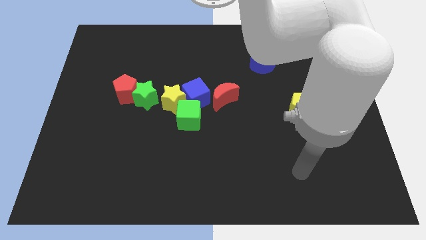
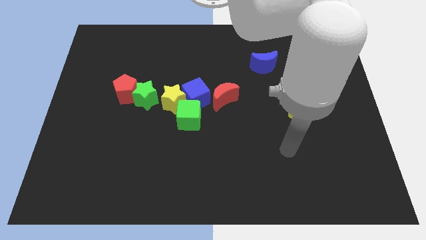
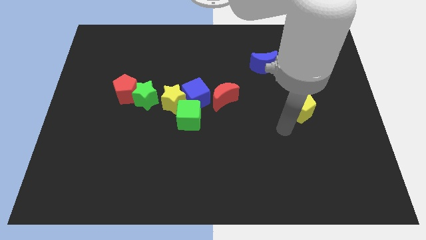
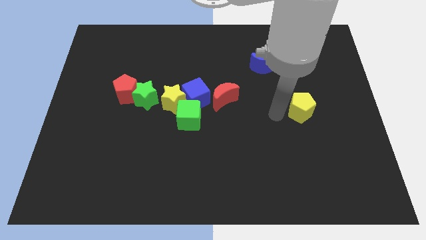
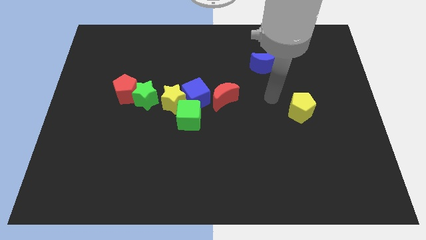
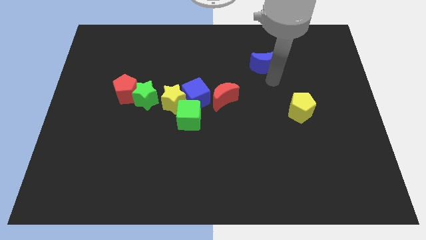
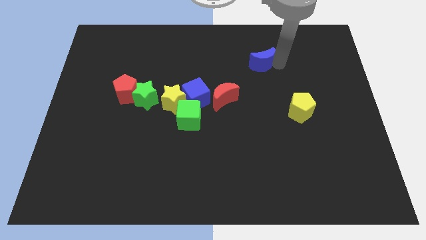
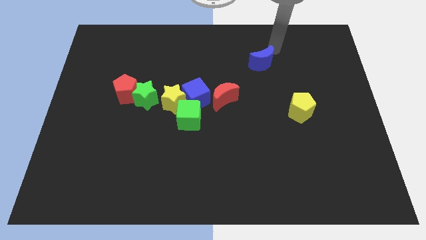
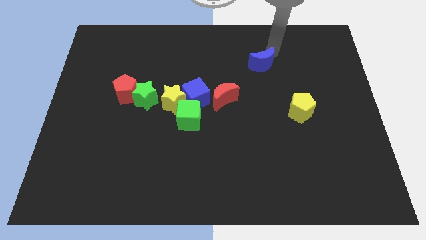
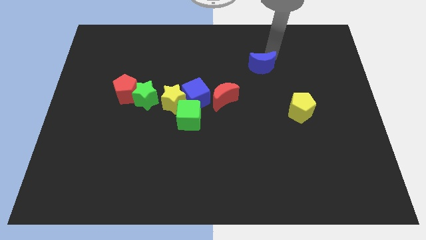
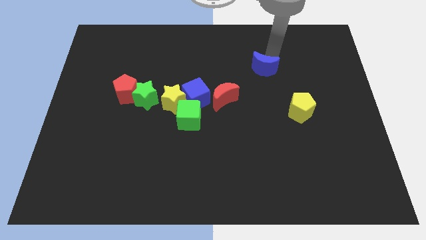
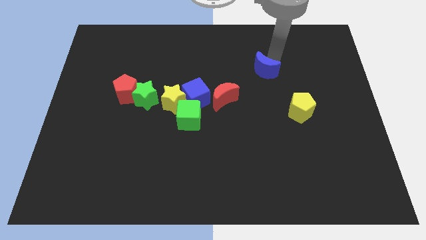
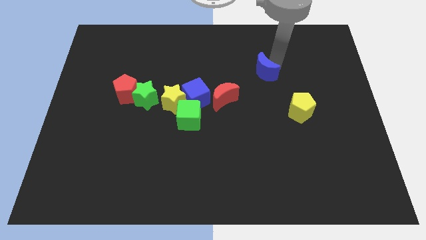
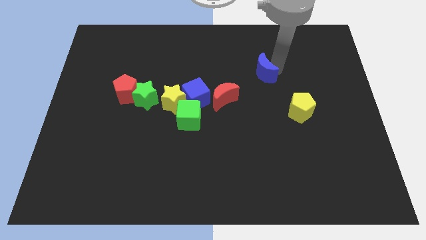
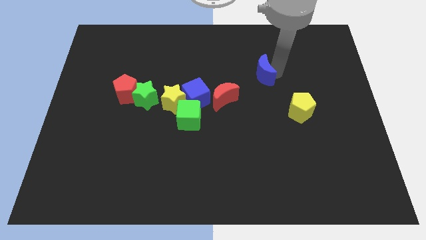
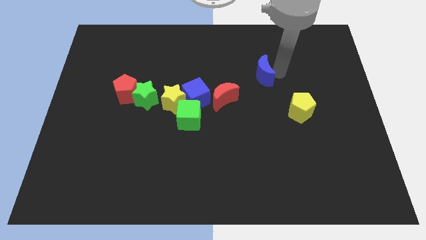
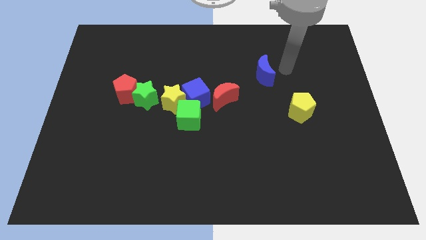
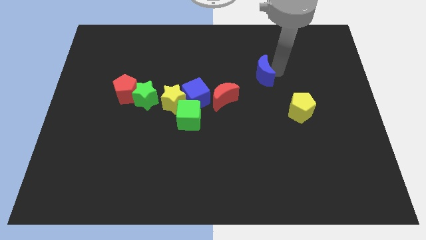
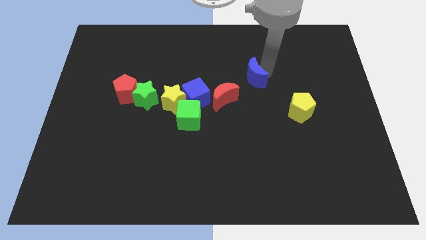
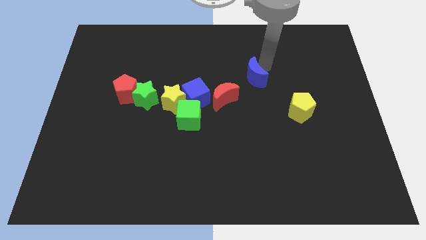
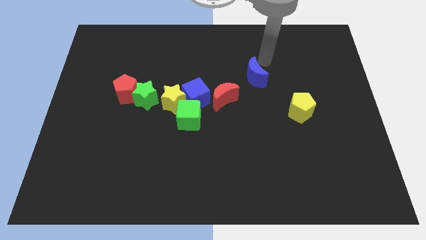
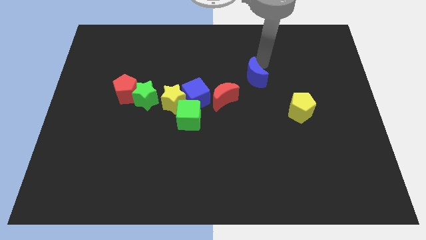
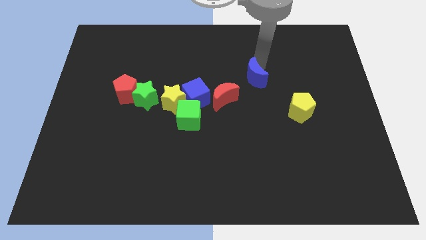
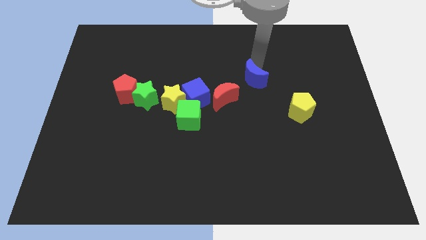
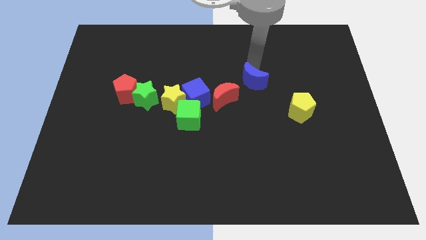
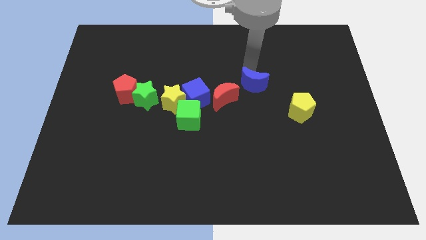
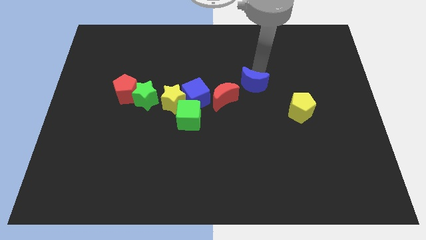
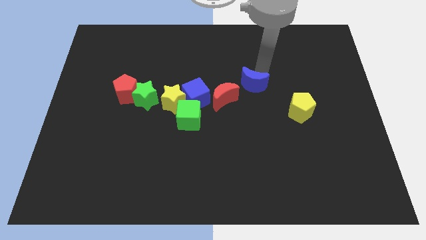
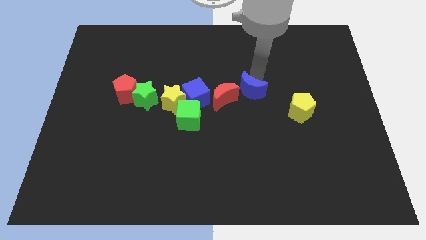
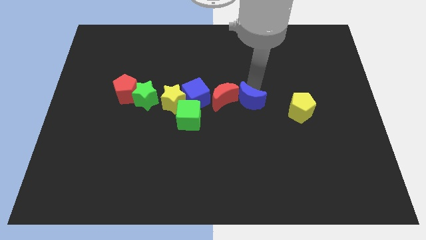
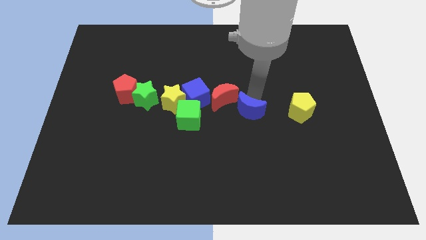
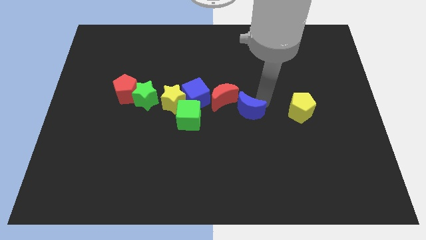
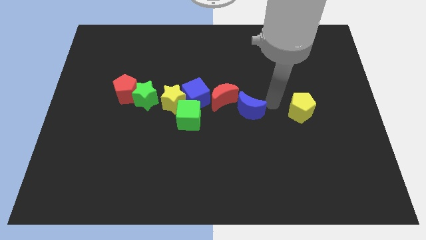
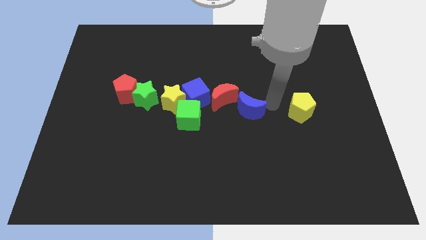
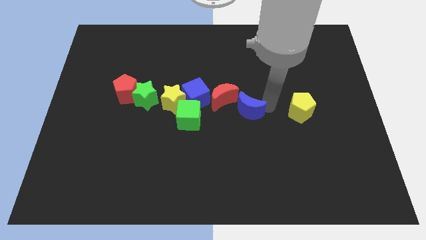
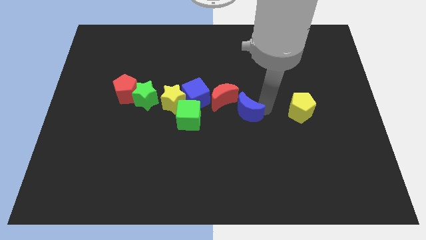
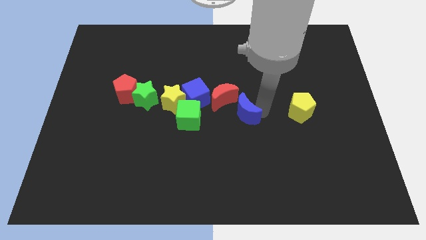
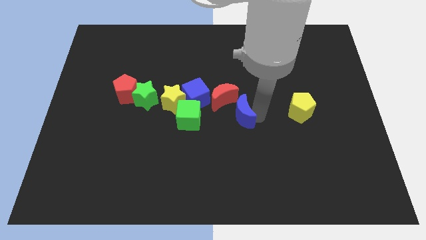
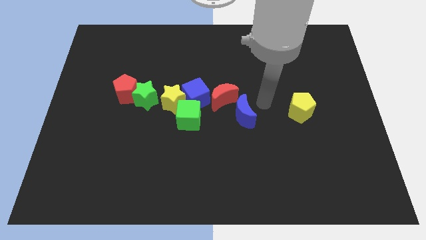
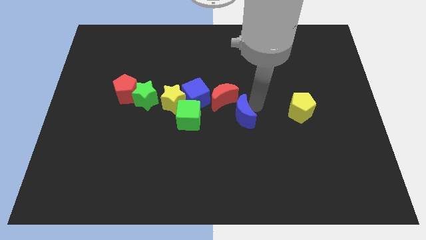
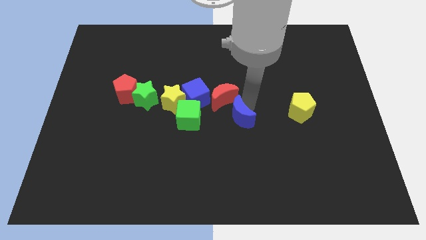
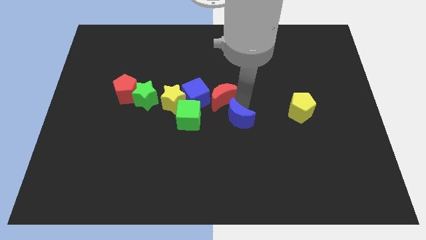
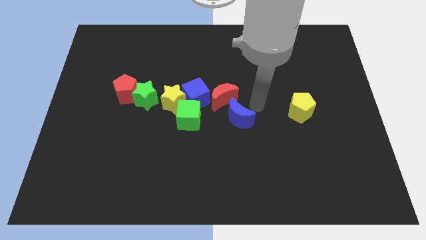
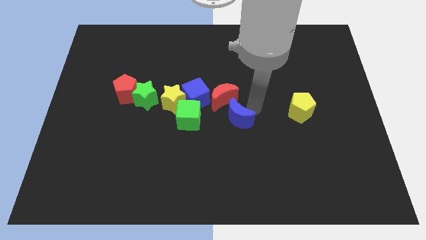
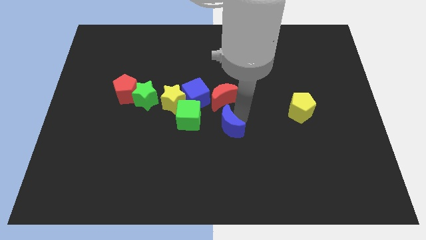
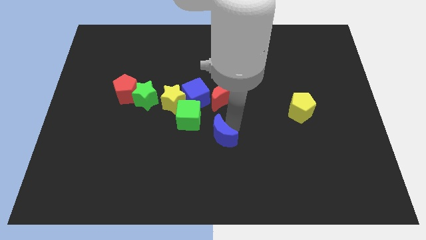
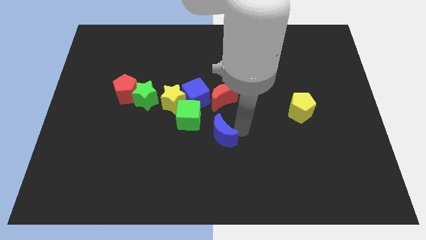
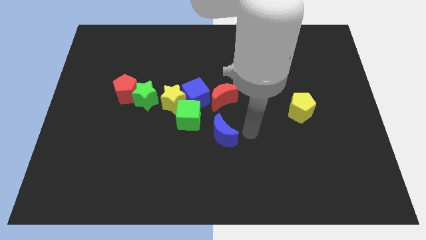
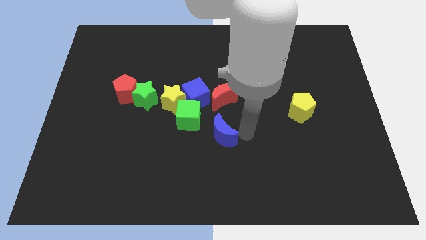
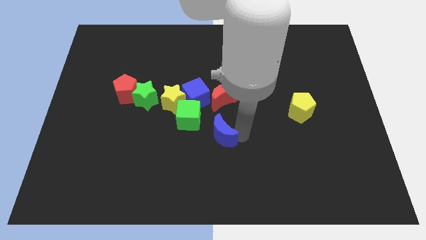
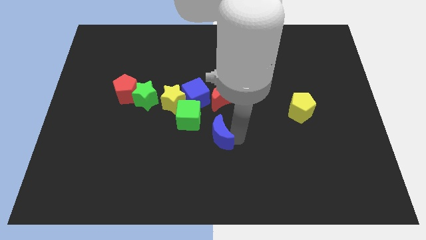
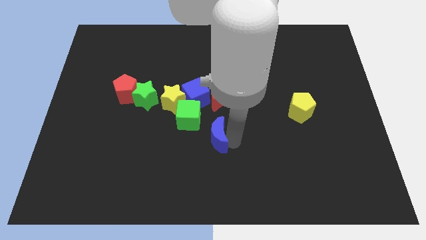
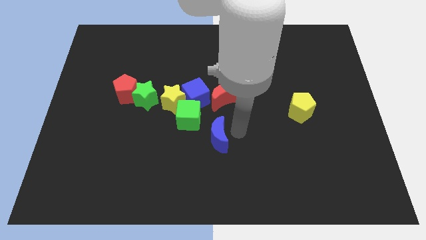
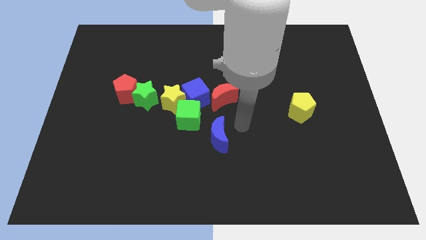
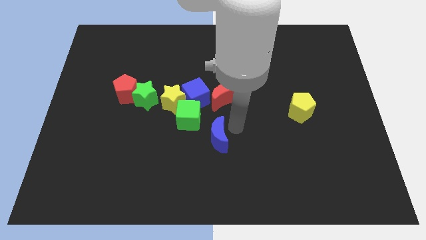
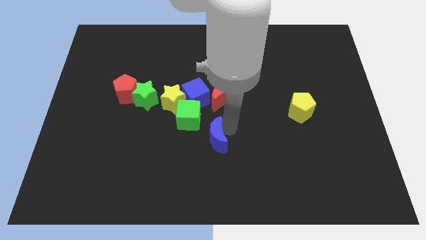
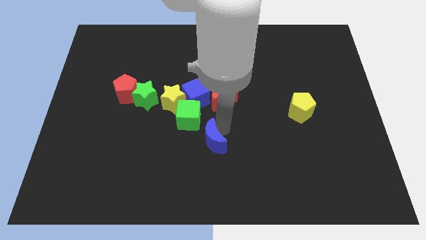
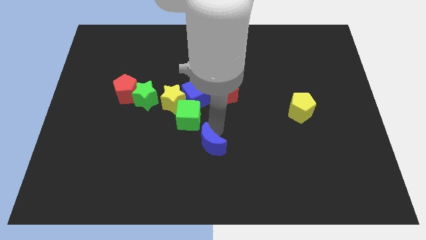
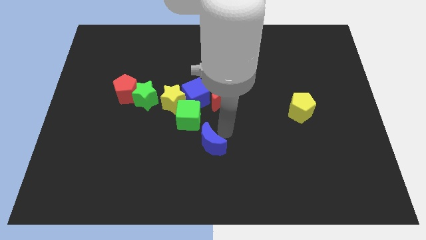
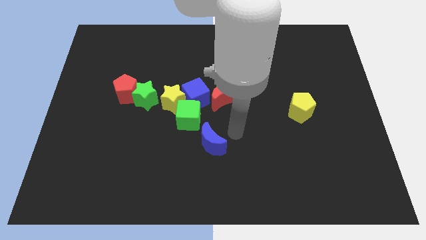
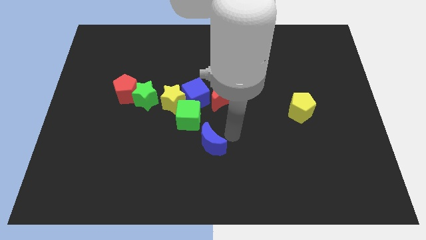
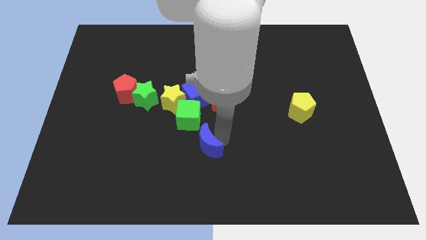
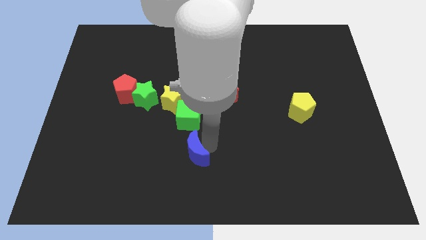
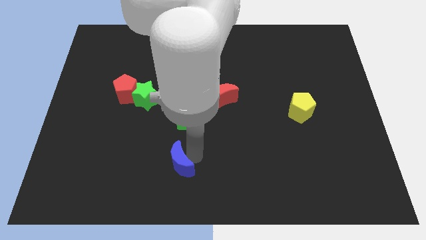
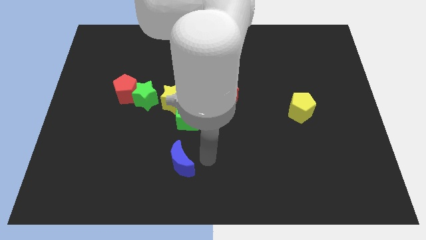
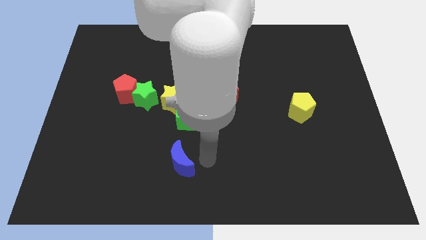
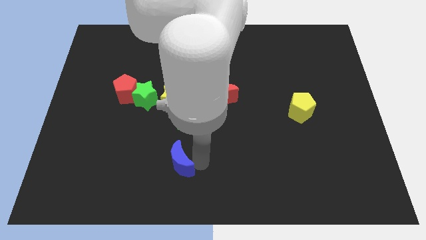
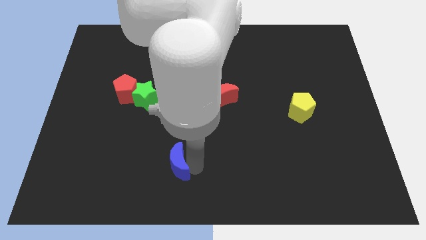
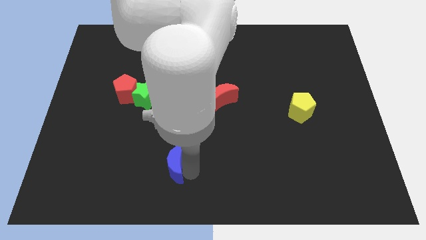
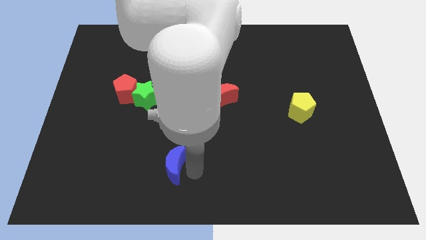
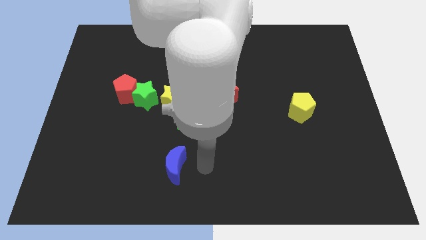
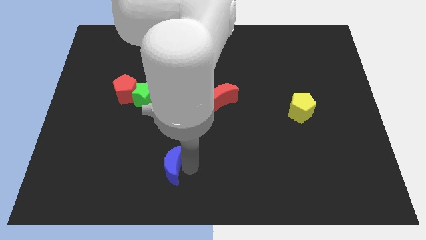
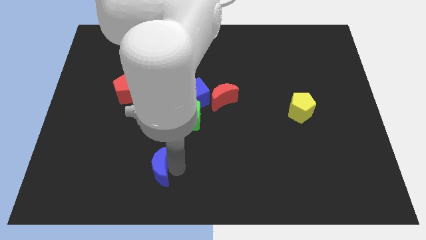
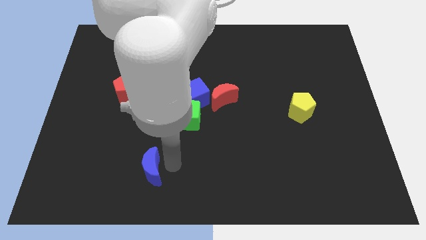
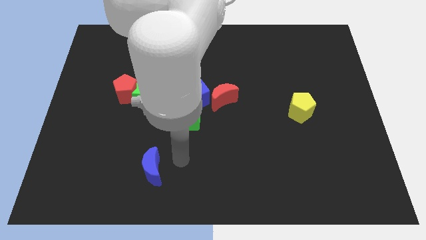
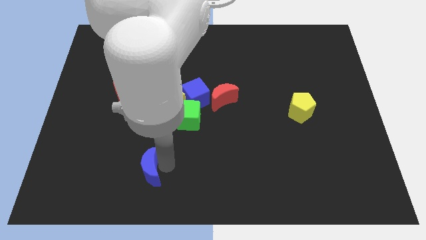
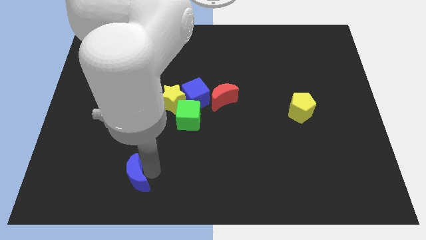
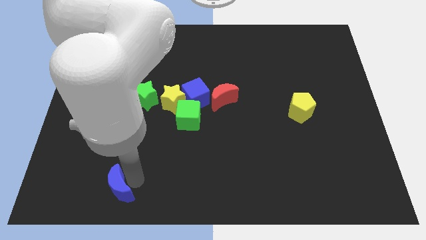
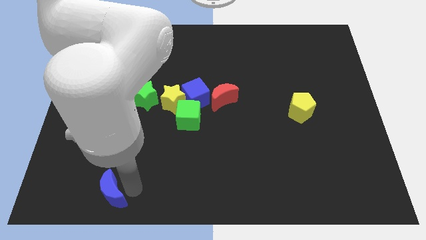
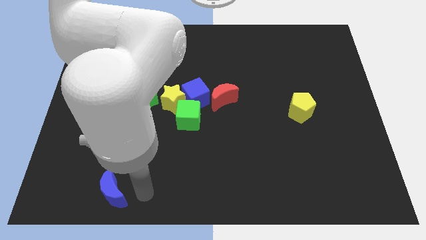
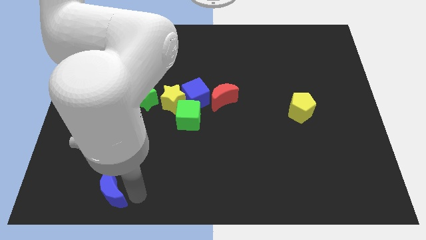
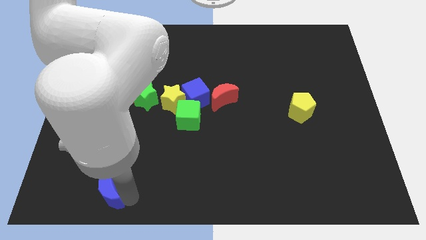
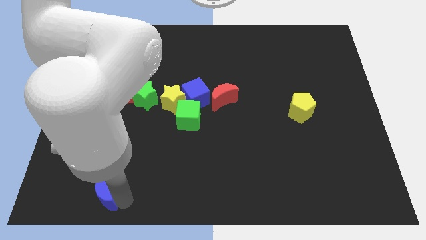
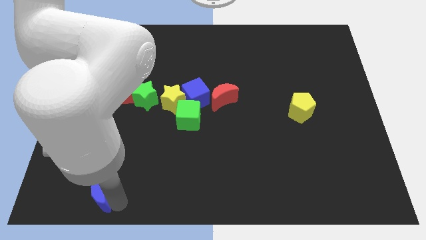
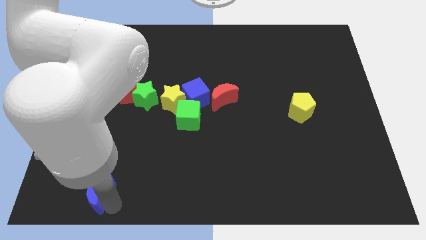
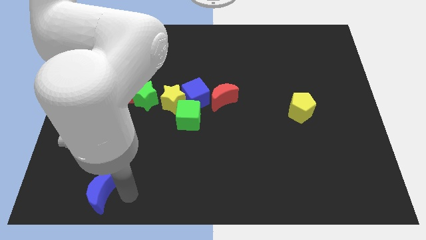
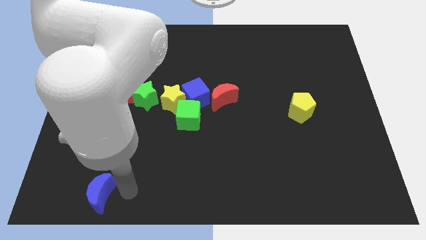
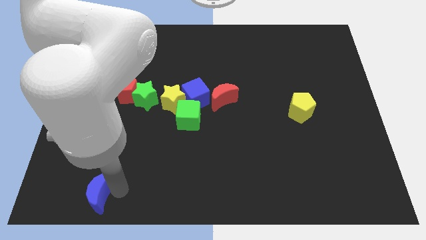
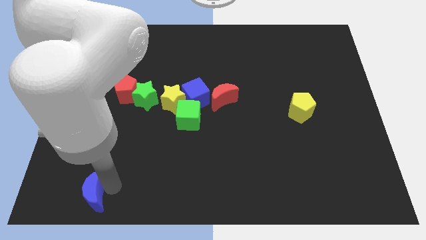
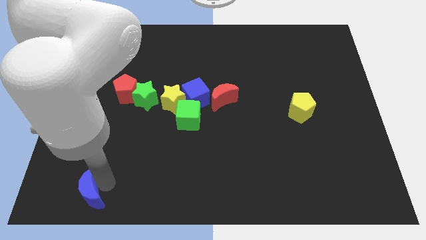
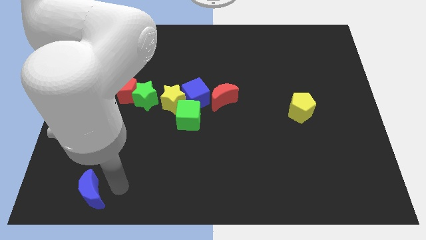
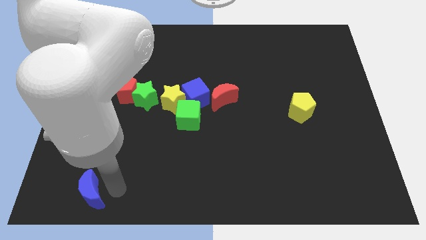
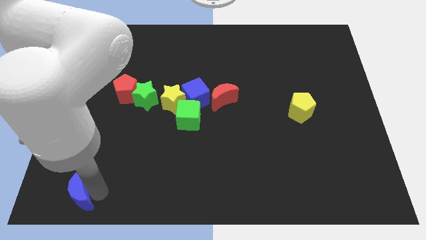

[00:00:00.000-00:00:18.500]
move the blue moon to the bottom left
